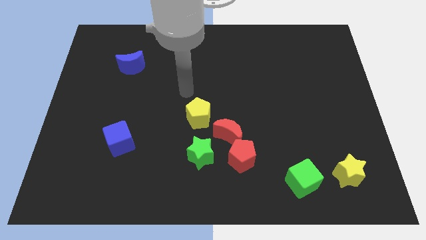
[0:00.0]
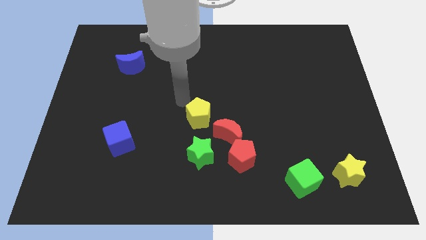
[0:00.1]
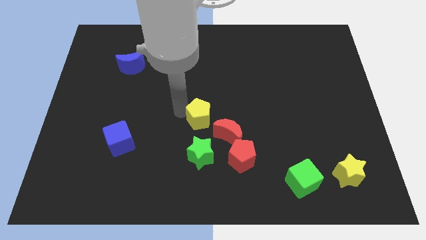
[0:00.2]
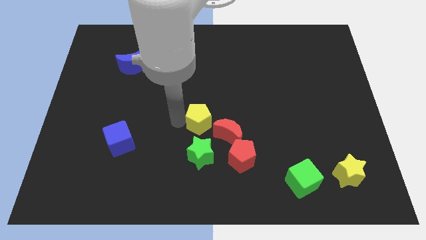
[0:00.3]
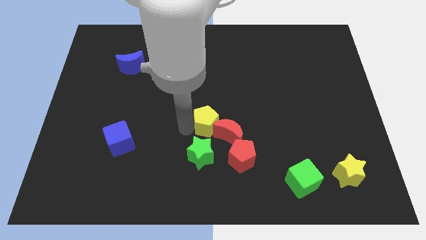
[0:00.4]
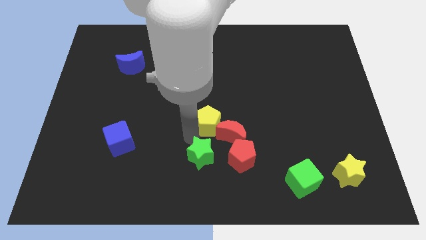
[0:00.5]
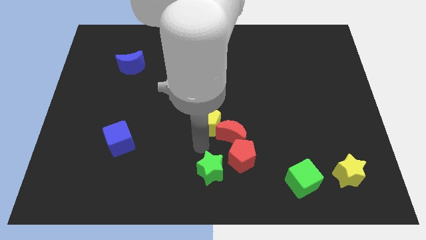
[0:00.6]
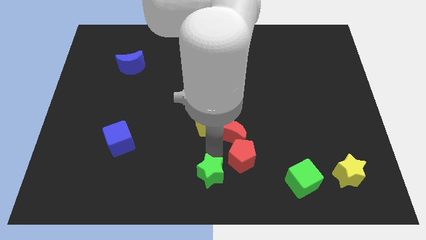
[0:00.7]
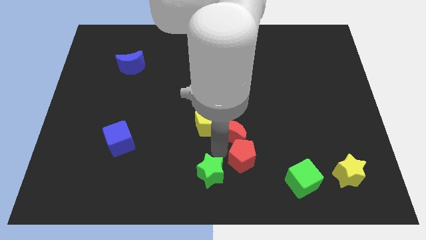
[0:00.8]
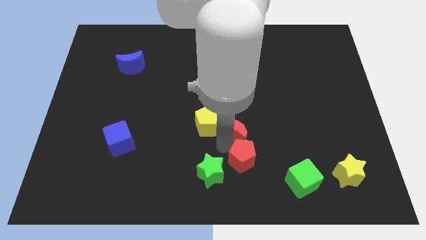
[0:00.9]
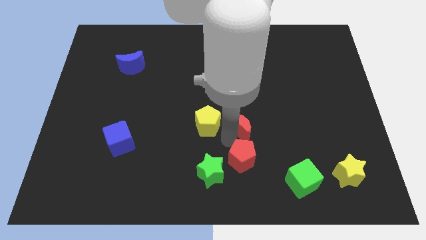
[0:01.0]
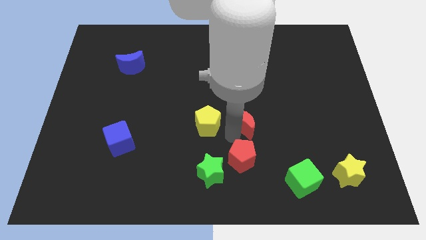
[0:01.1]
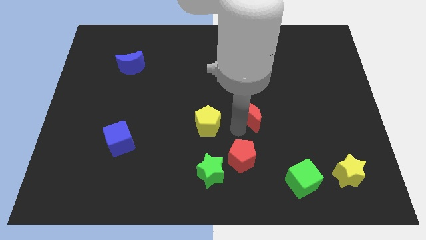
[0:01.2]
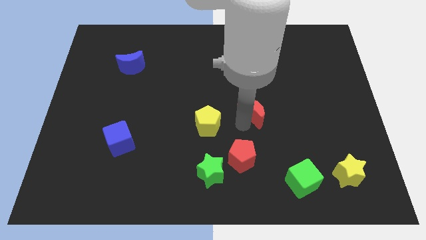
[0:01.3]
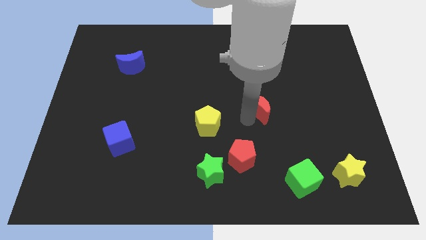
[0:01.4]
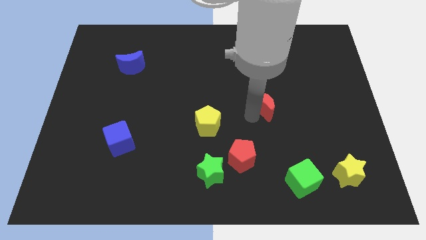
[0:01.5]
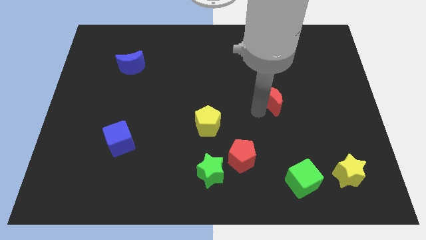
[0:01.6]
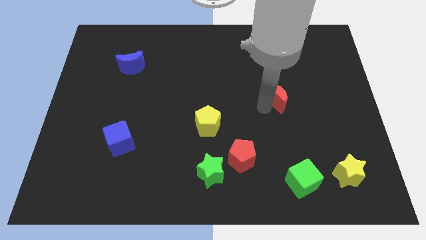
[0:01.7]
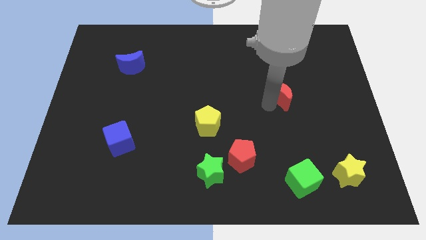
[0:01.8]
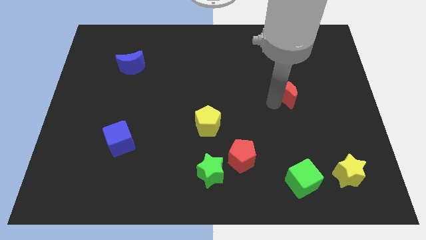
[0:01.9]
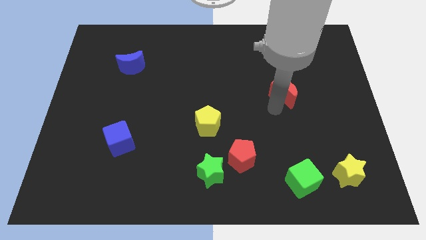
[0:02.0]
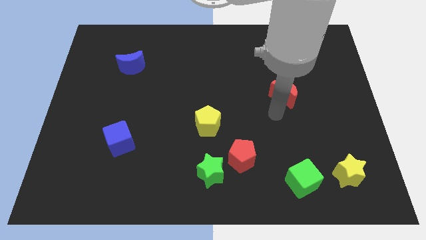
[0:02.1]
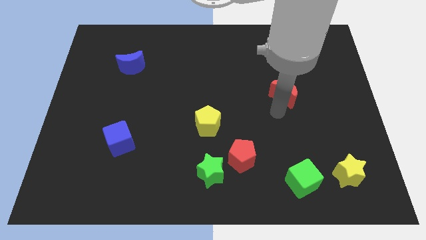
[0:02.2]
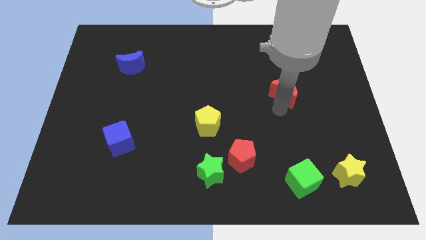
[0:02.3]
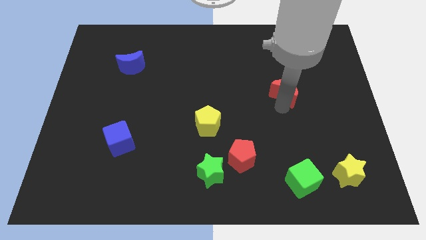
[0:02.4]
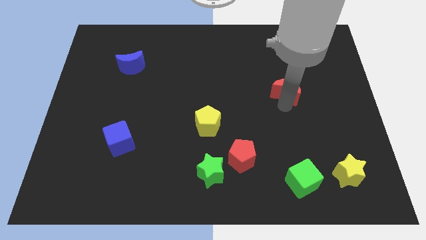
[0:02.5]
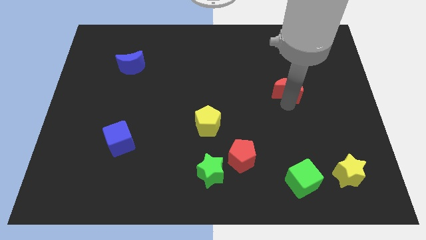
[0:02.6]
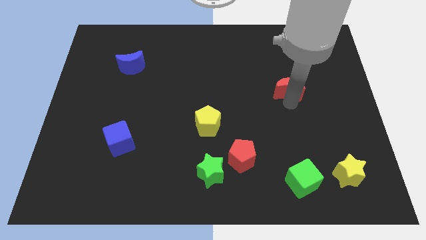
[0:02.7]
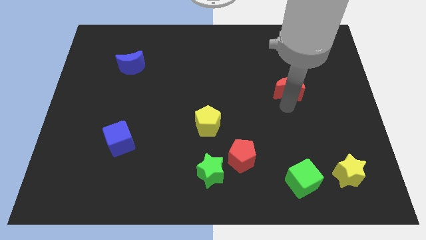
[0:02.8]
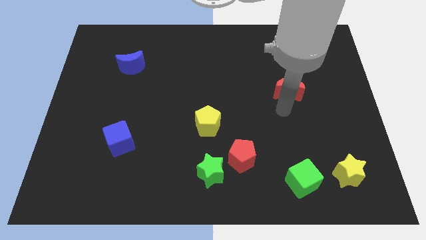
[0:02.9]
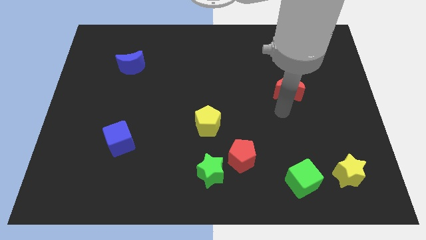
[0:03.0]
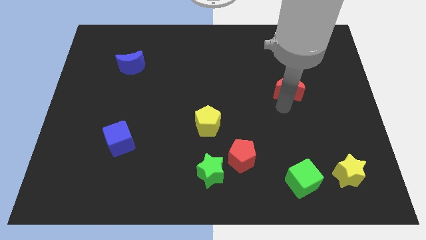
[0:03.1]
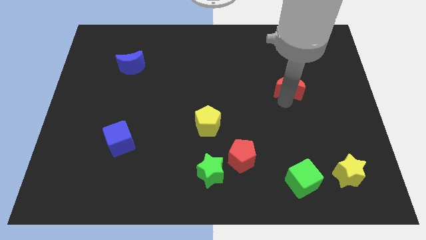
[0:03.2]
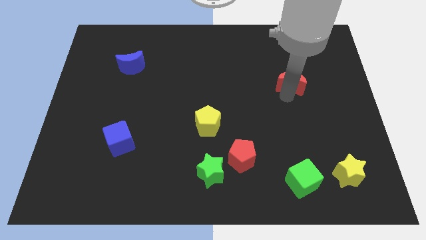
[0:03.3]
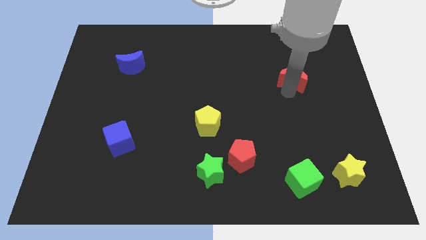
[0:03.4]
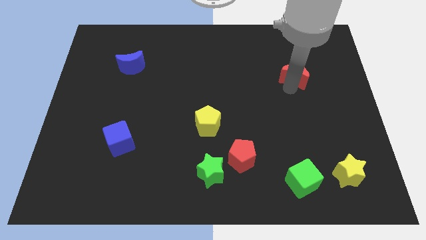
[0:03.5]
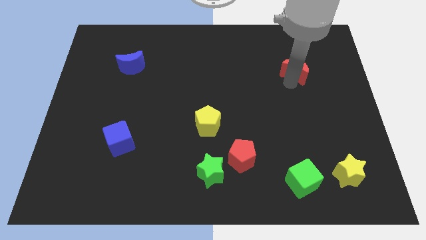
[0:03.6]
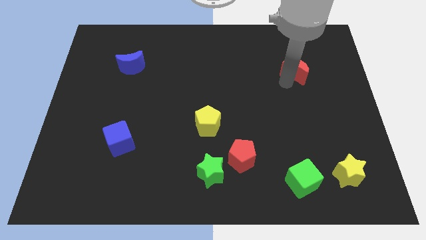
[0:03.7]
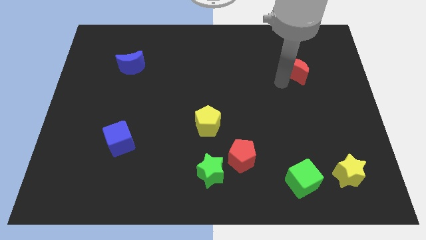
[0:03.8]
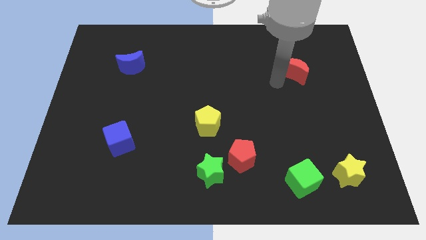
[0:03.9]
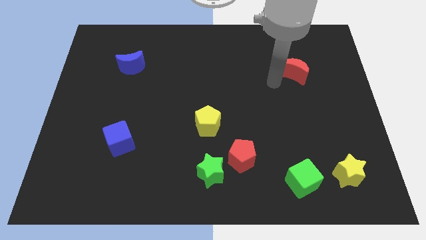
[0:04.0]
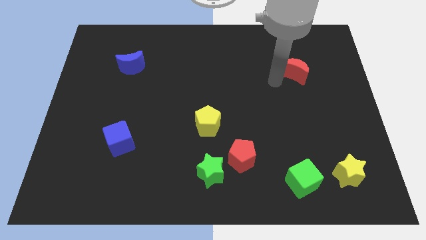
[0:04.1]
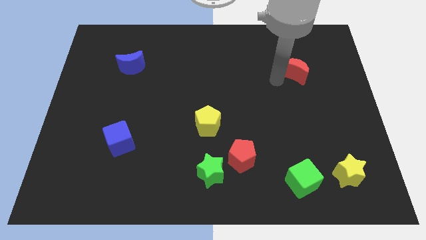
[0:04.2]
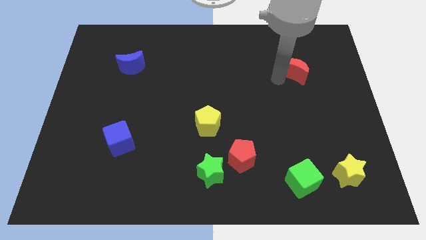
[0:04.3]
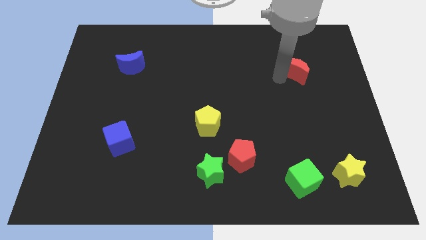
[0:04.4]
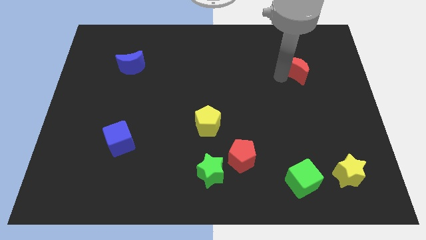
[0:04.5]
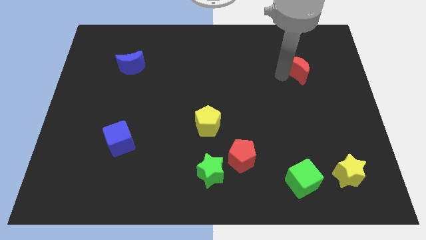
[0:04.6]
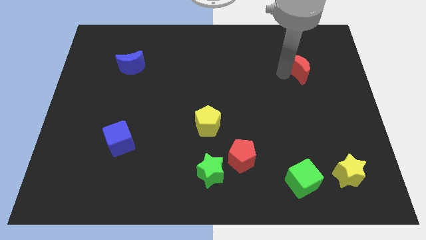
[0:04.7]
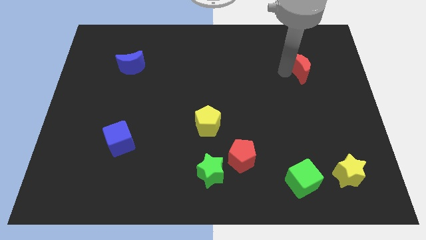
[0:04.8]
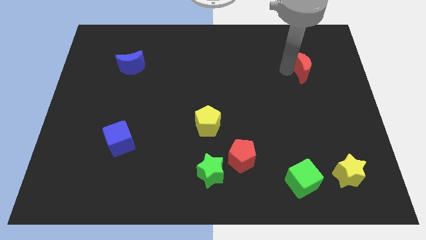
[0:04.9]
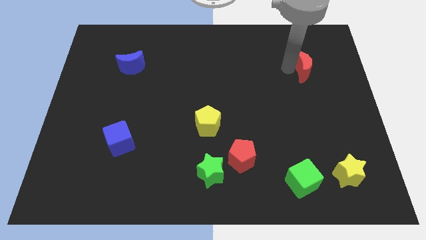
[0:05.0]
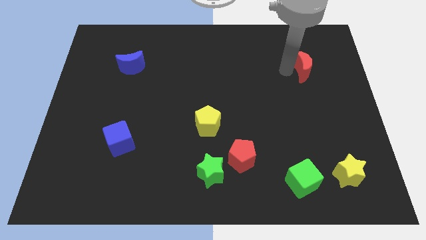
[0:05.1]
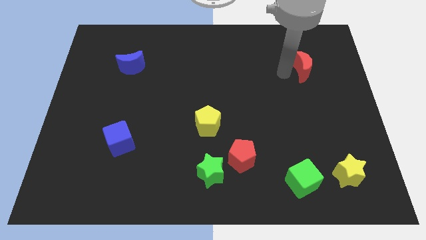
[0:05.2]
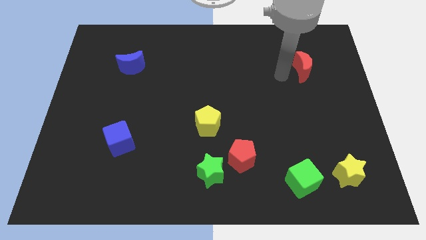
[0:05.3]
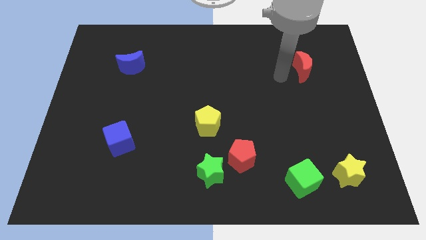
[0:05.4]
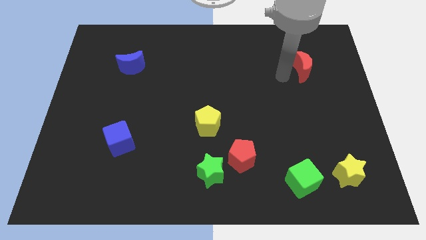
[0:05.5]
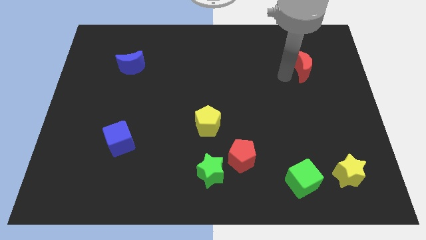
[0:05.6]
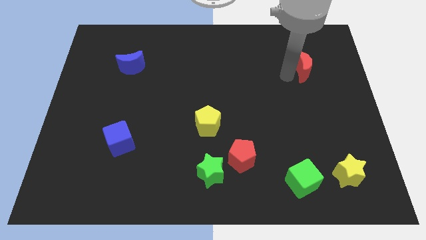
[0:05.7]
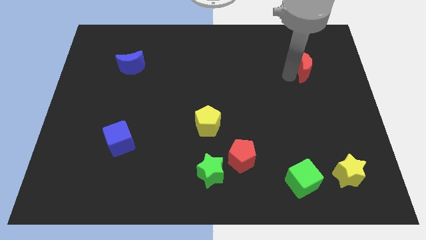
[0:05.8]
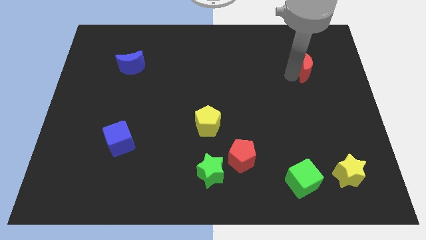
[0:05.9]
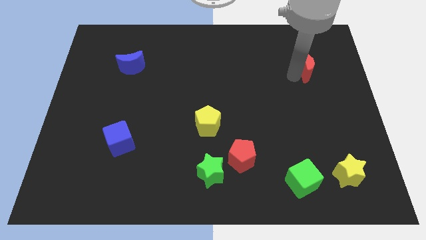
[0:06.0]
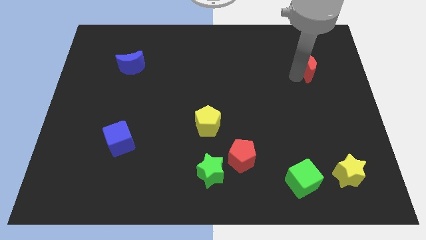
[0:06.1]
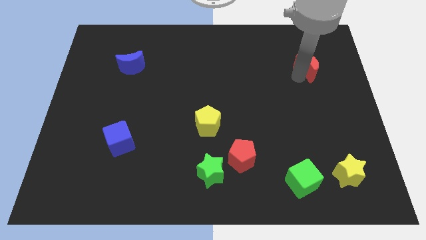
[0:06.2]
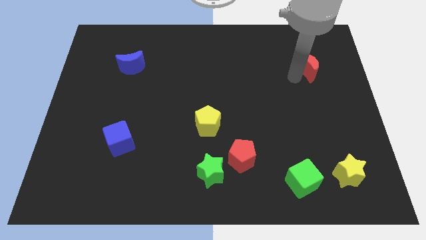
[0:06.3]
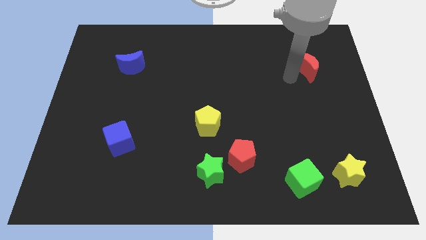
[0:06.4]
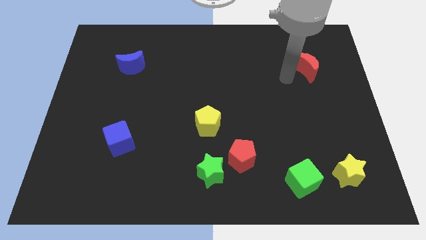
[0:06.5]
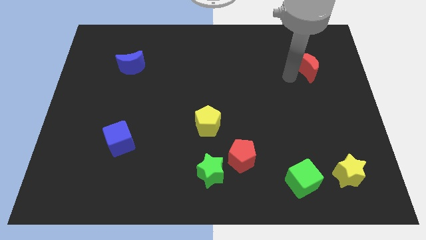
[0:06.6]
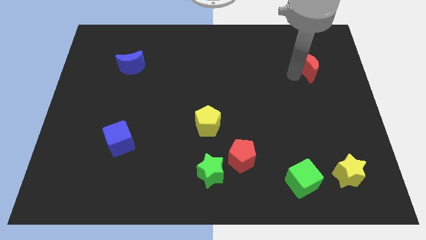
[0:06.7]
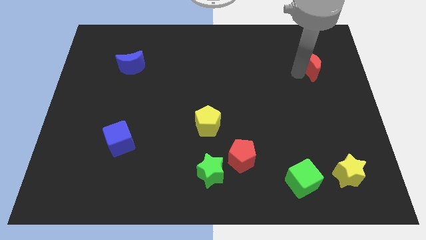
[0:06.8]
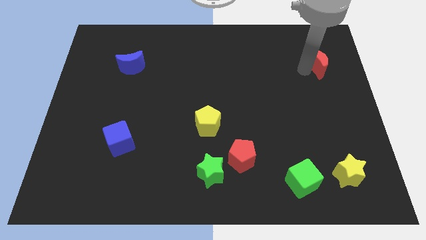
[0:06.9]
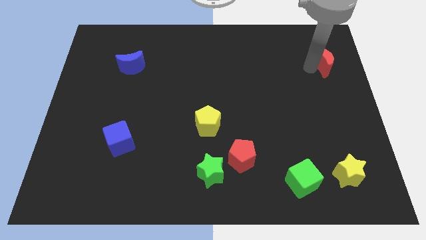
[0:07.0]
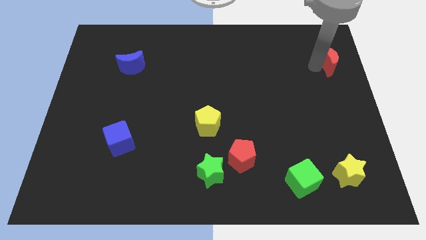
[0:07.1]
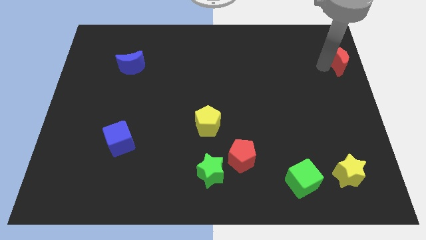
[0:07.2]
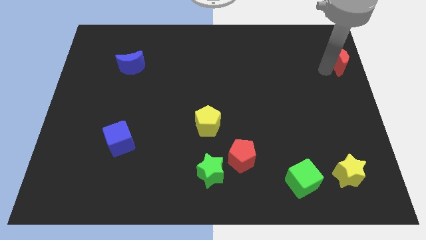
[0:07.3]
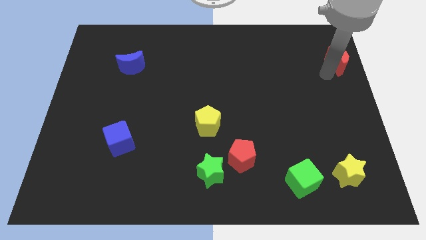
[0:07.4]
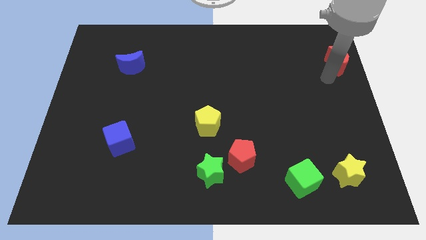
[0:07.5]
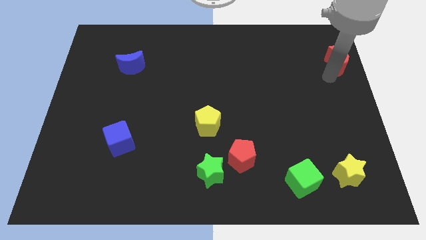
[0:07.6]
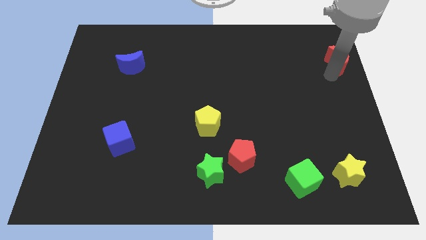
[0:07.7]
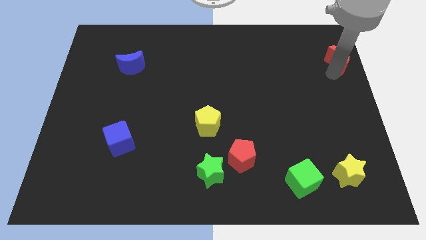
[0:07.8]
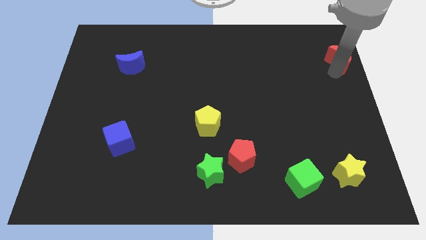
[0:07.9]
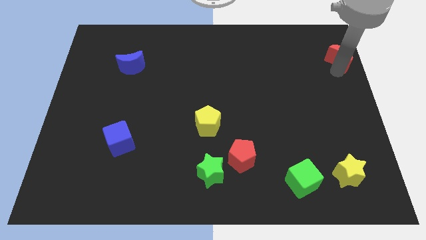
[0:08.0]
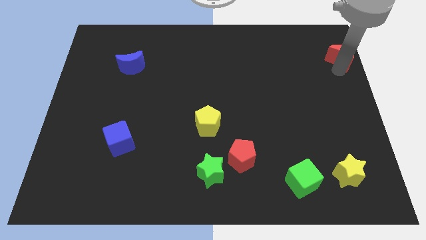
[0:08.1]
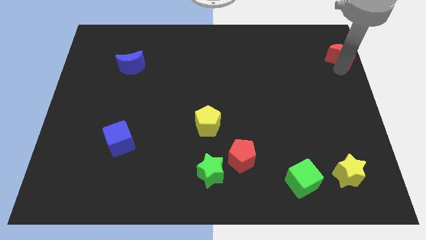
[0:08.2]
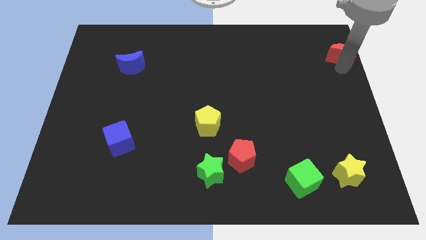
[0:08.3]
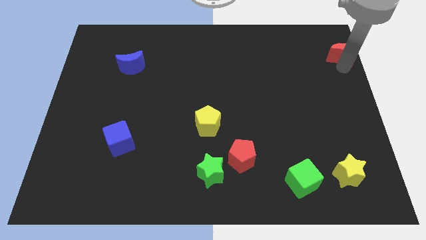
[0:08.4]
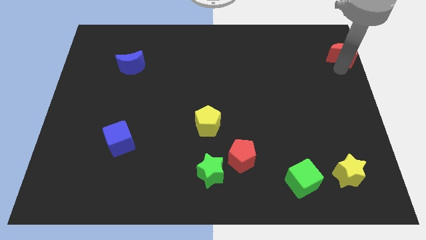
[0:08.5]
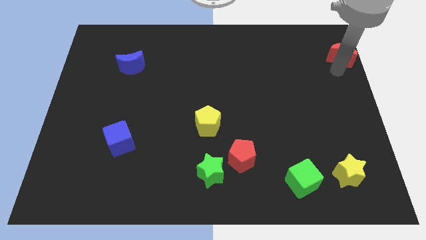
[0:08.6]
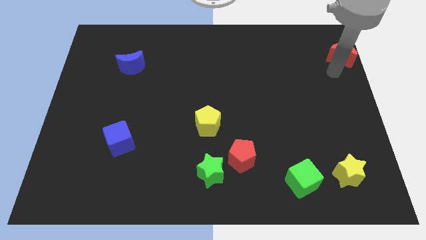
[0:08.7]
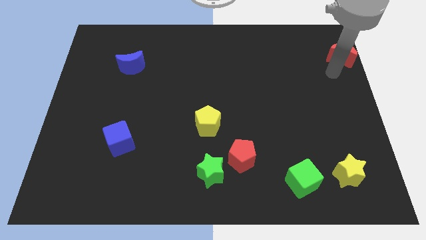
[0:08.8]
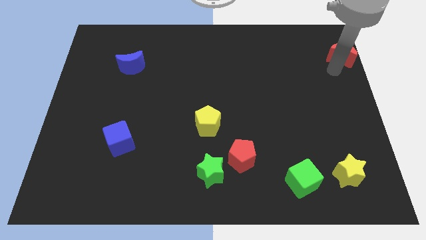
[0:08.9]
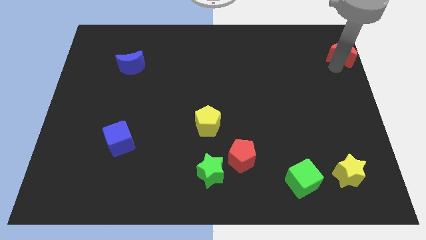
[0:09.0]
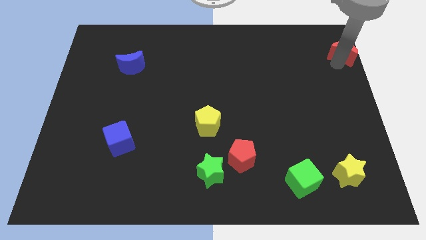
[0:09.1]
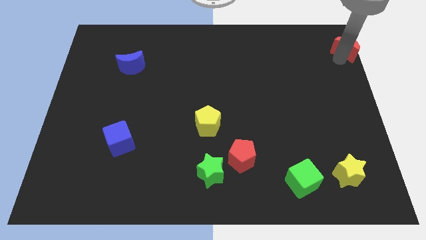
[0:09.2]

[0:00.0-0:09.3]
slide the red moon to the top right corner
